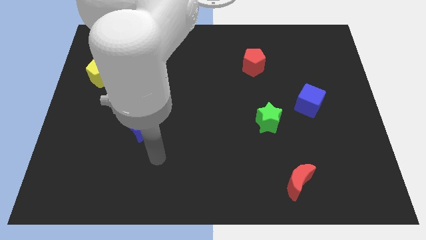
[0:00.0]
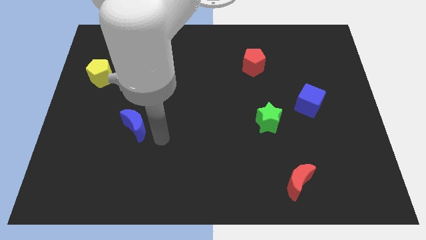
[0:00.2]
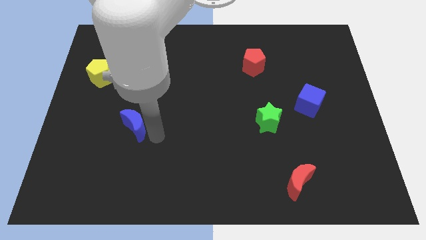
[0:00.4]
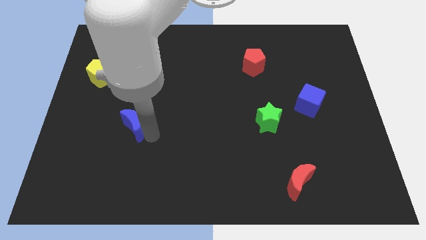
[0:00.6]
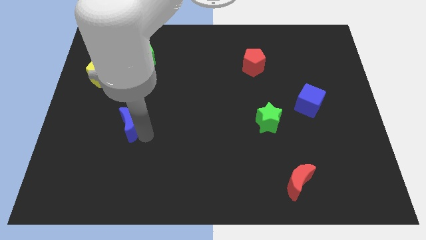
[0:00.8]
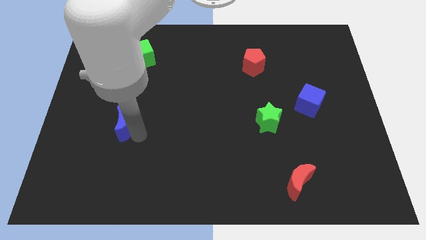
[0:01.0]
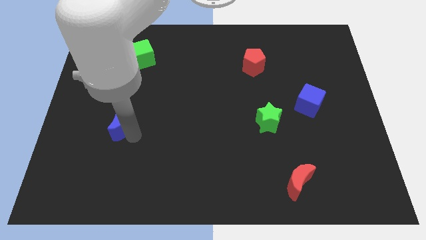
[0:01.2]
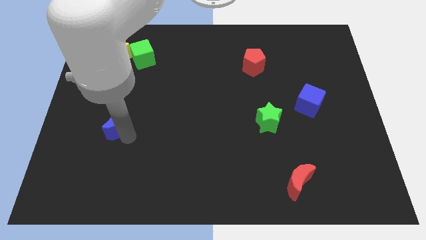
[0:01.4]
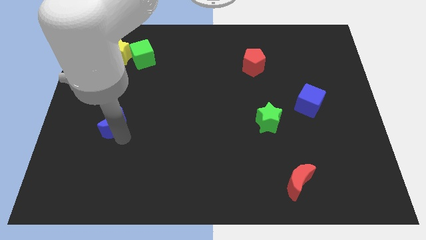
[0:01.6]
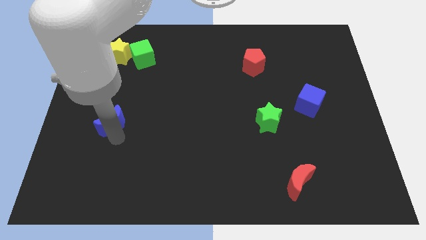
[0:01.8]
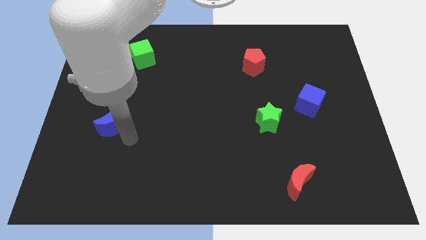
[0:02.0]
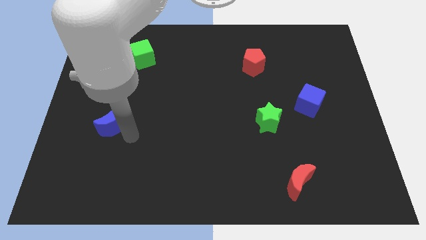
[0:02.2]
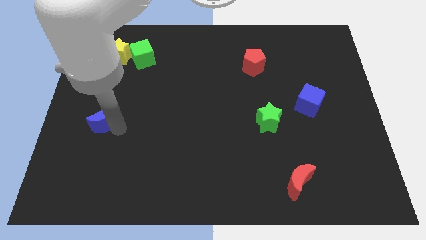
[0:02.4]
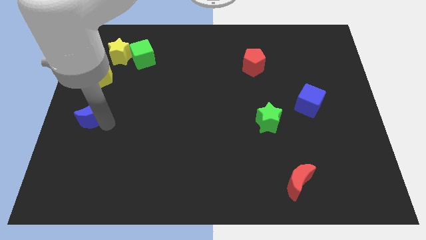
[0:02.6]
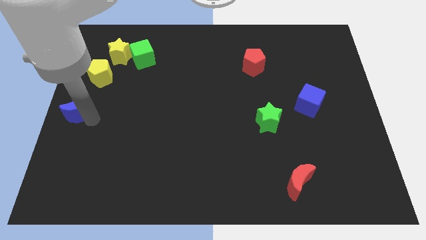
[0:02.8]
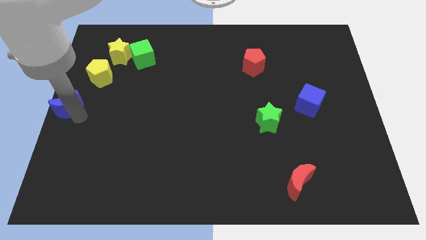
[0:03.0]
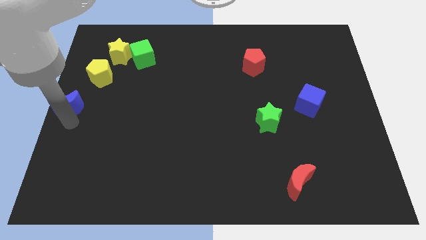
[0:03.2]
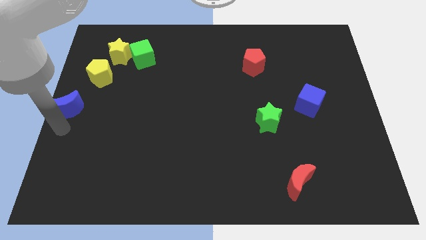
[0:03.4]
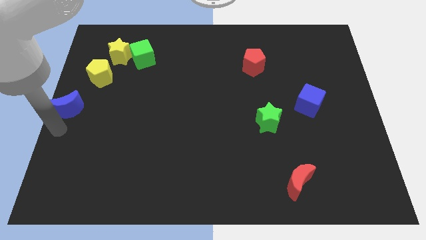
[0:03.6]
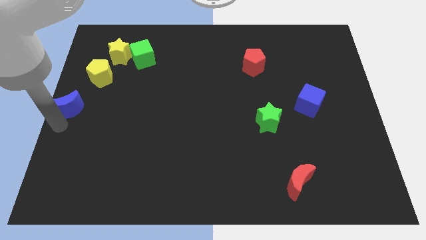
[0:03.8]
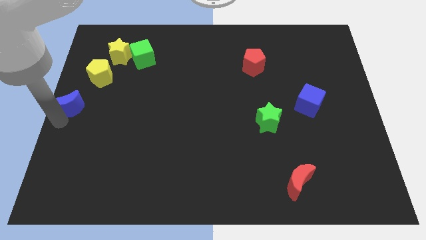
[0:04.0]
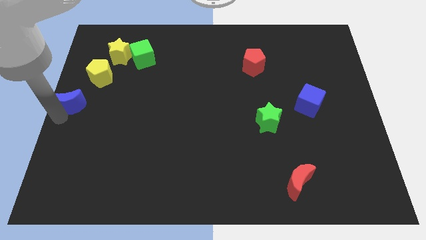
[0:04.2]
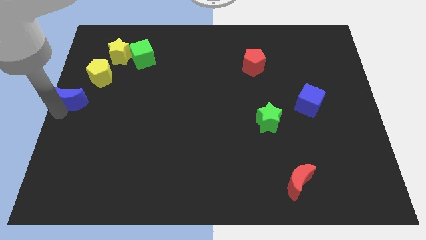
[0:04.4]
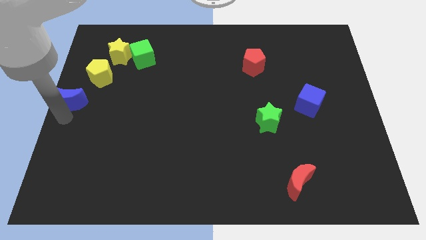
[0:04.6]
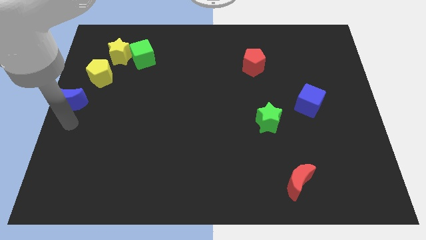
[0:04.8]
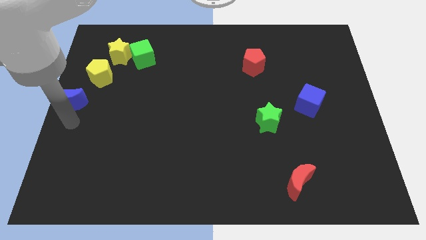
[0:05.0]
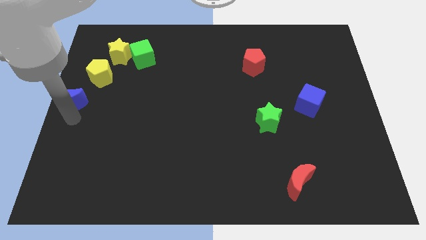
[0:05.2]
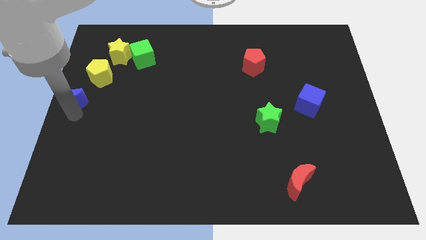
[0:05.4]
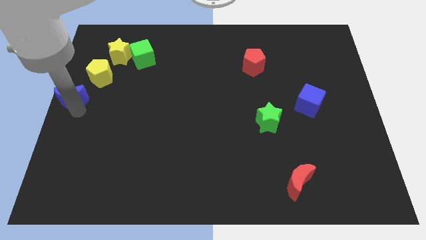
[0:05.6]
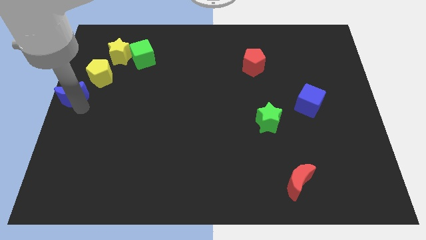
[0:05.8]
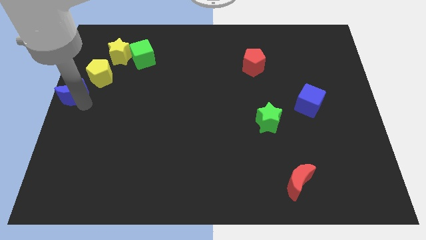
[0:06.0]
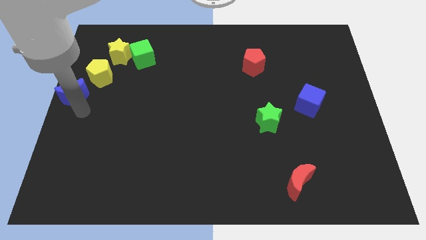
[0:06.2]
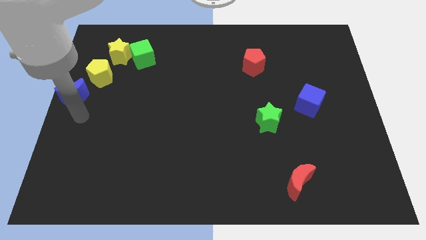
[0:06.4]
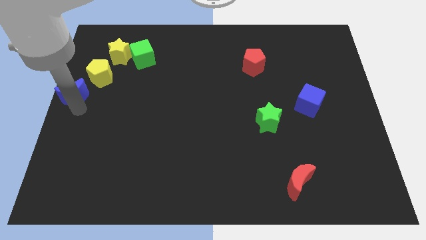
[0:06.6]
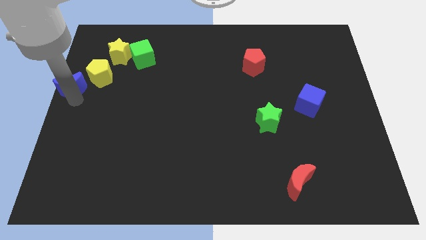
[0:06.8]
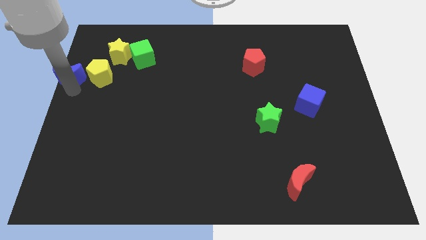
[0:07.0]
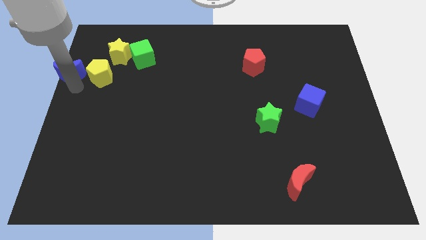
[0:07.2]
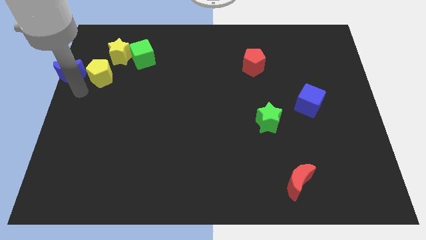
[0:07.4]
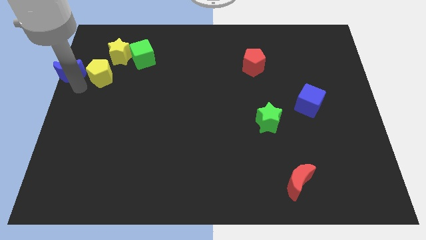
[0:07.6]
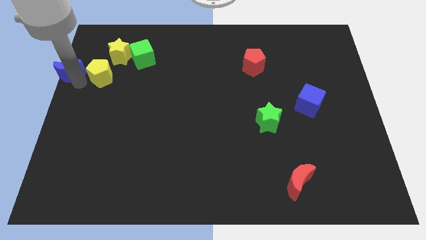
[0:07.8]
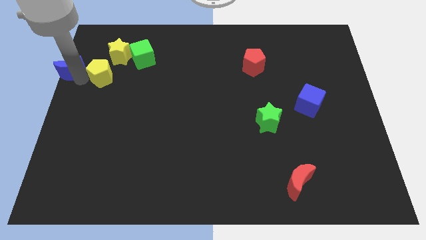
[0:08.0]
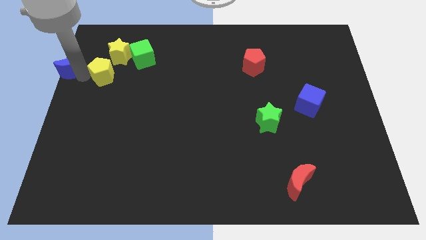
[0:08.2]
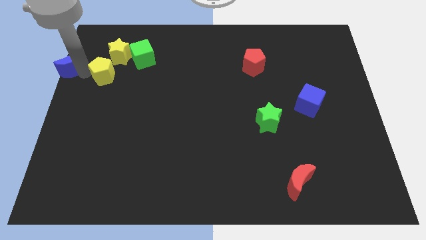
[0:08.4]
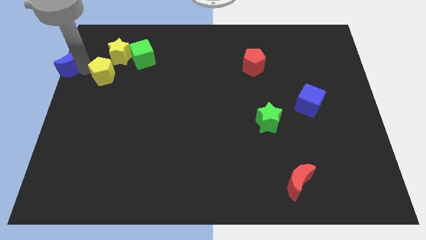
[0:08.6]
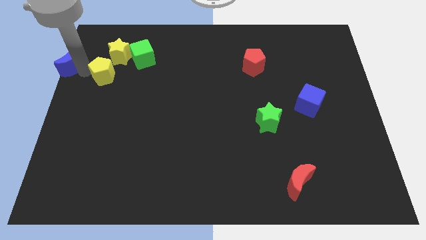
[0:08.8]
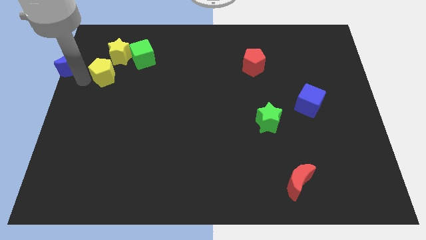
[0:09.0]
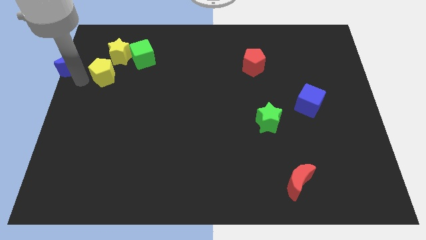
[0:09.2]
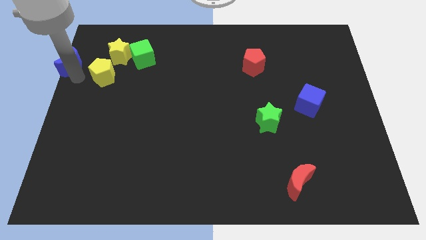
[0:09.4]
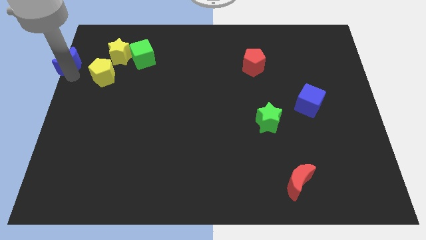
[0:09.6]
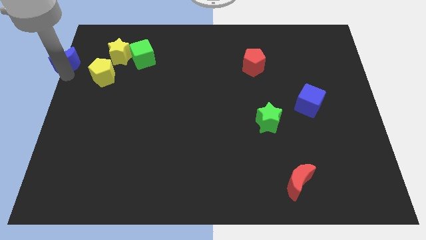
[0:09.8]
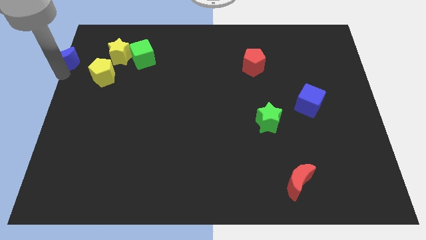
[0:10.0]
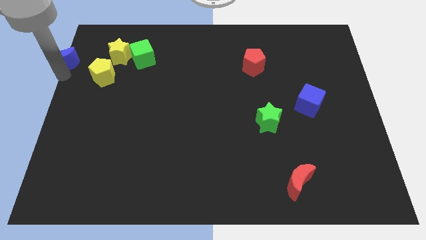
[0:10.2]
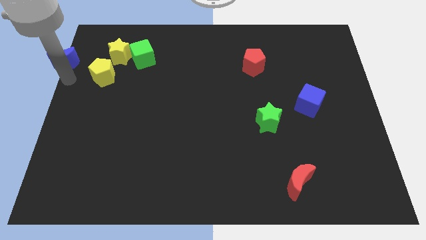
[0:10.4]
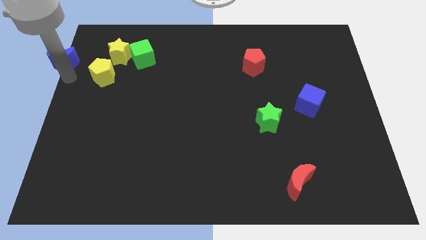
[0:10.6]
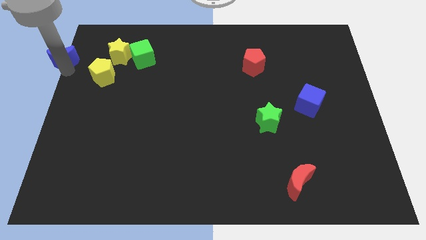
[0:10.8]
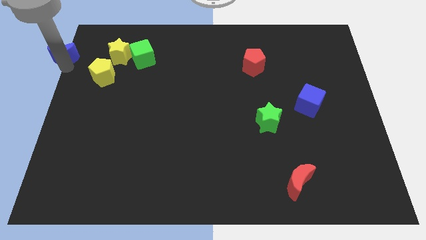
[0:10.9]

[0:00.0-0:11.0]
put the blue moon to the upper left corner

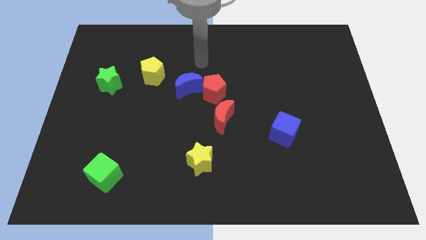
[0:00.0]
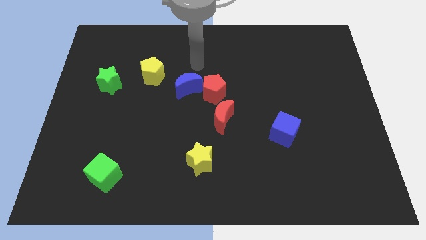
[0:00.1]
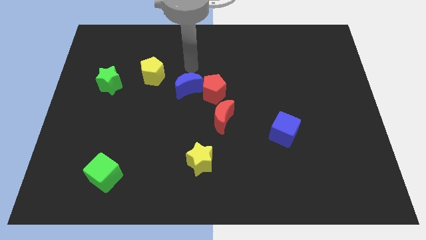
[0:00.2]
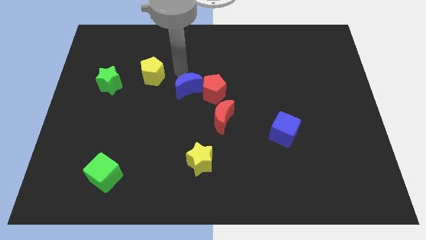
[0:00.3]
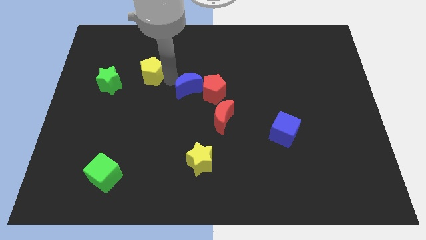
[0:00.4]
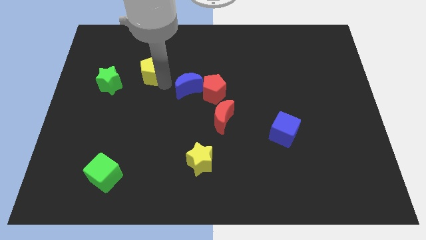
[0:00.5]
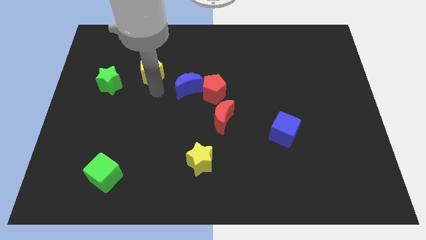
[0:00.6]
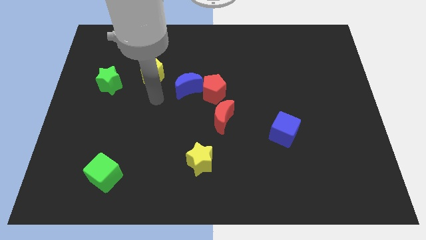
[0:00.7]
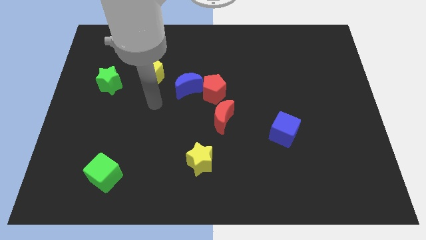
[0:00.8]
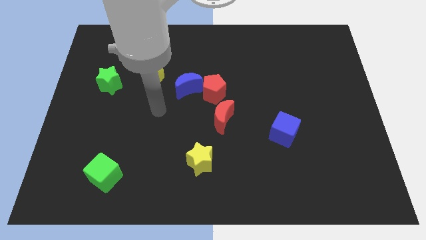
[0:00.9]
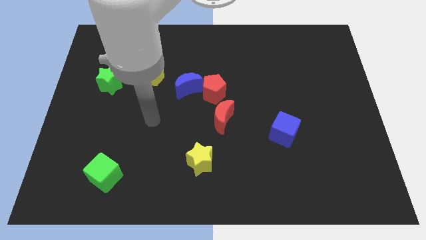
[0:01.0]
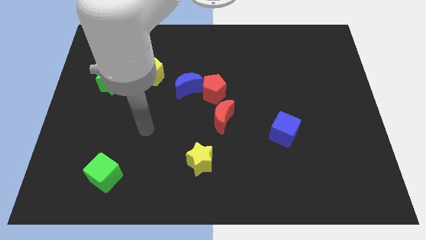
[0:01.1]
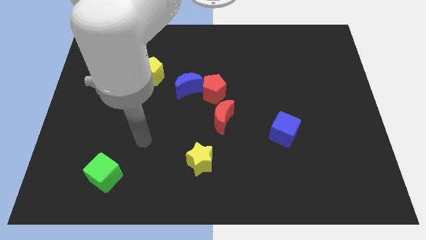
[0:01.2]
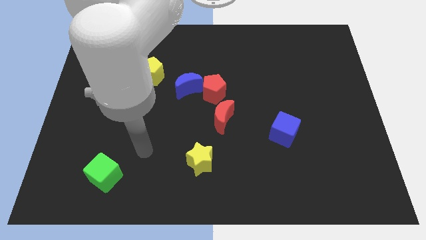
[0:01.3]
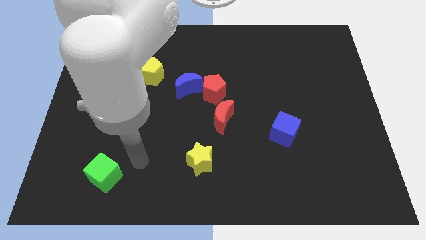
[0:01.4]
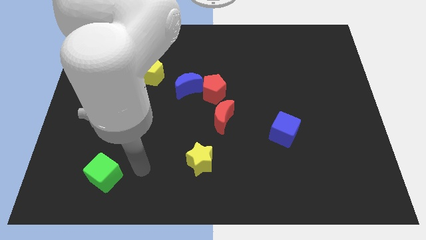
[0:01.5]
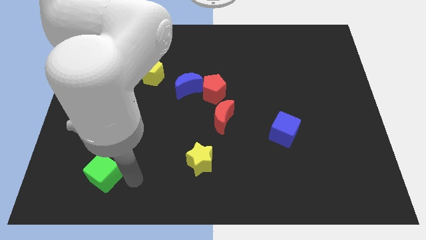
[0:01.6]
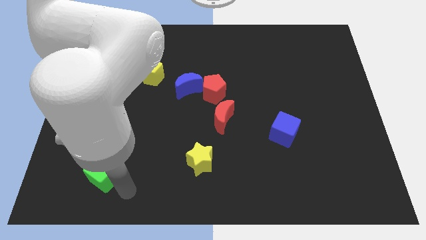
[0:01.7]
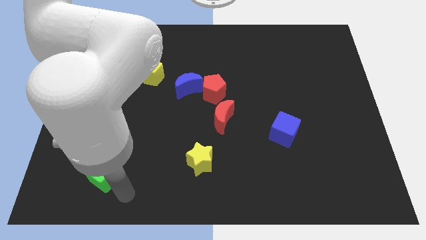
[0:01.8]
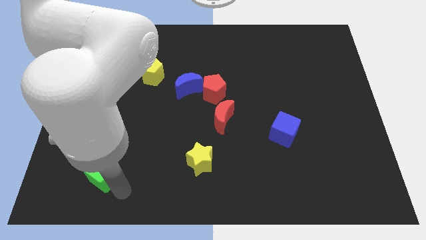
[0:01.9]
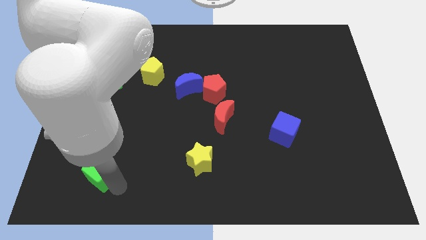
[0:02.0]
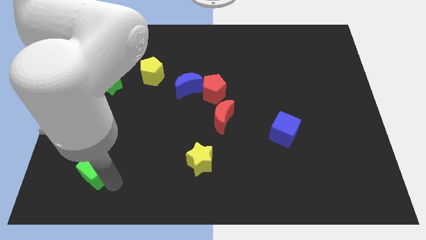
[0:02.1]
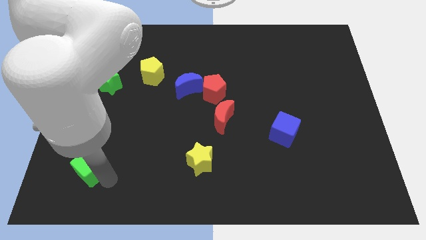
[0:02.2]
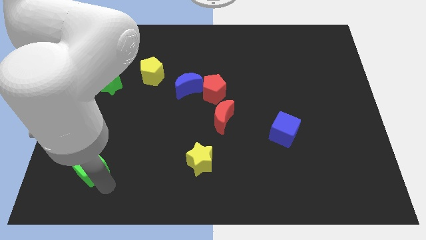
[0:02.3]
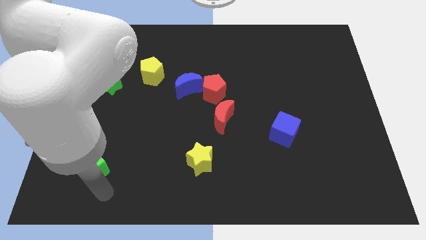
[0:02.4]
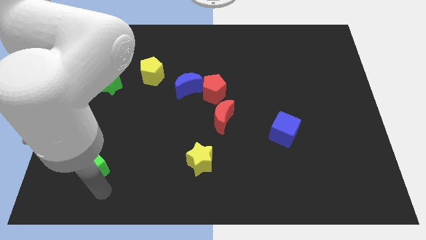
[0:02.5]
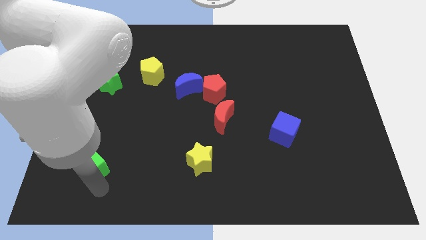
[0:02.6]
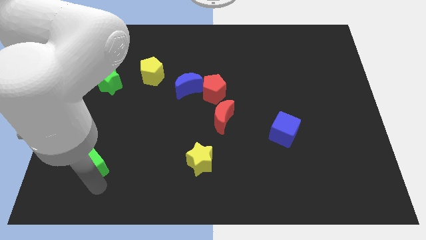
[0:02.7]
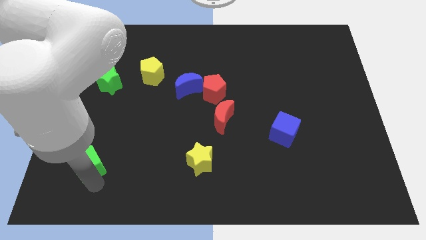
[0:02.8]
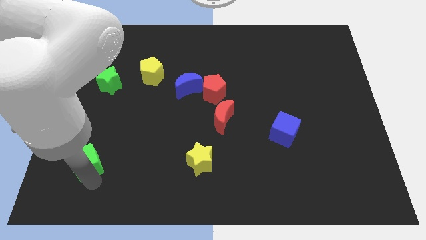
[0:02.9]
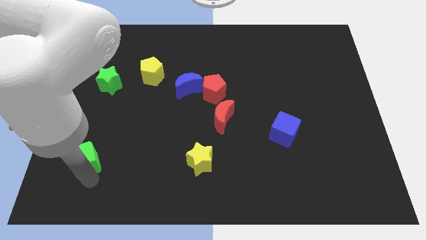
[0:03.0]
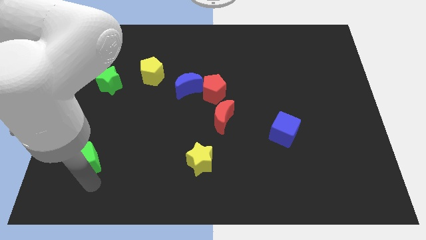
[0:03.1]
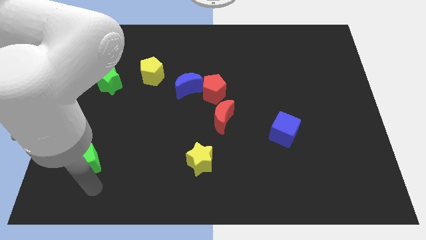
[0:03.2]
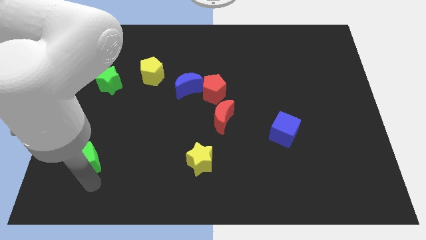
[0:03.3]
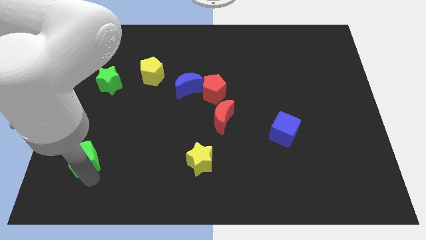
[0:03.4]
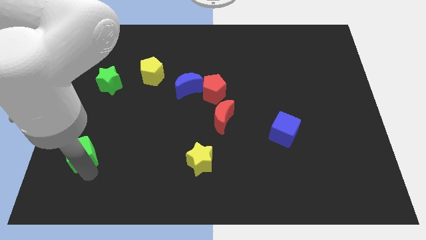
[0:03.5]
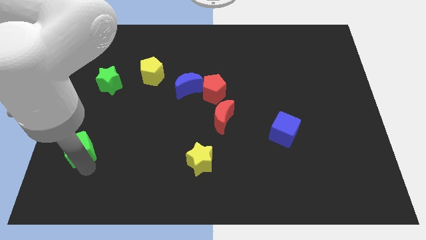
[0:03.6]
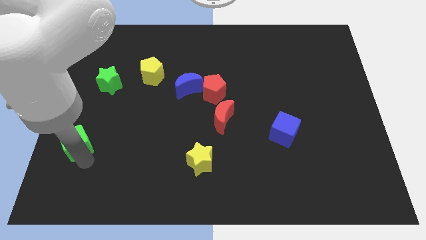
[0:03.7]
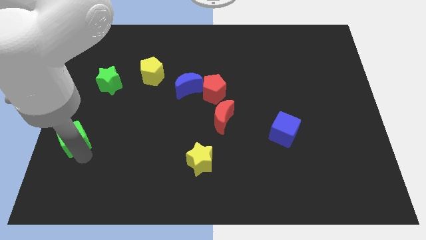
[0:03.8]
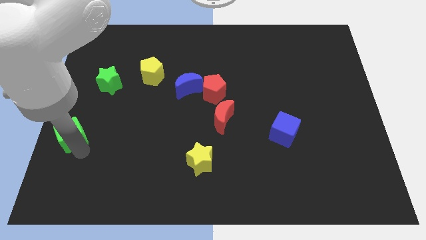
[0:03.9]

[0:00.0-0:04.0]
move the green cube to the left side of the board
